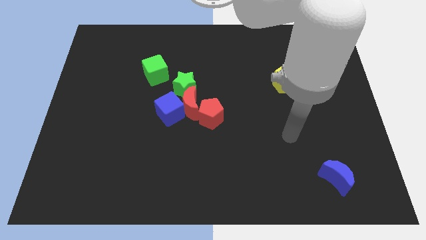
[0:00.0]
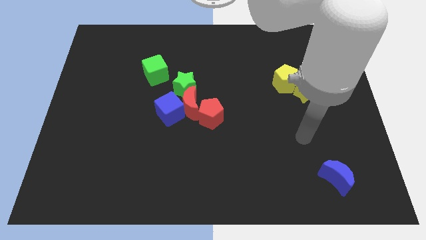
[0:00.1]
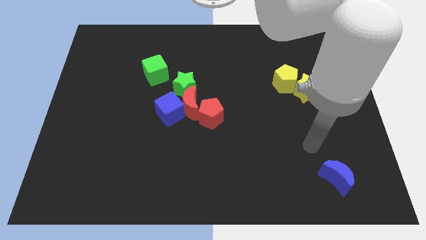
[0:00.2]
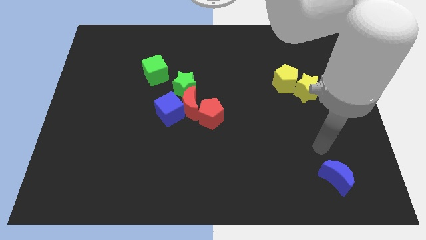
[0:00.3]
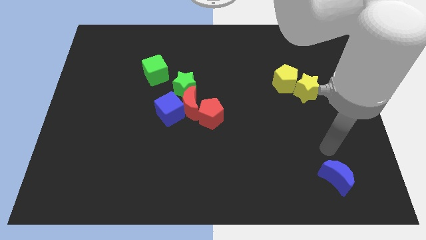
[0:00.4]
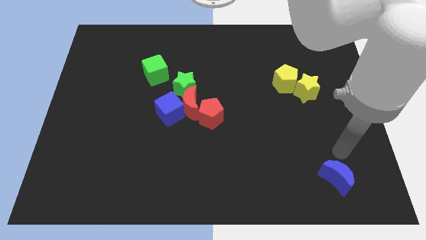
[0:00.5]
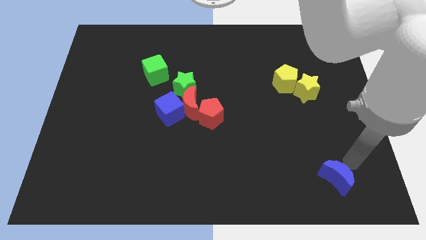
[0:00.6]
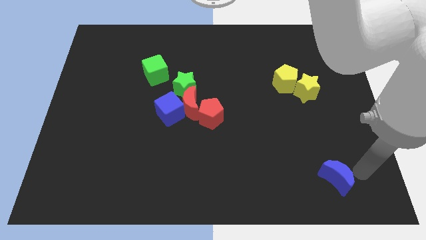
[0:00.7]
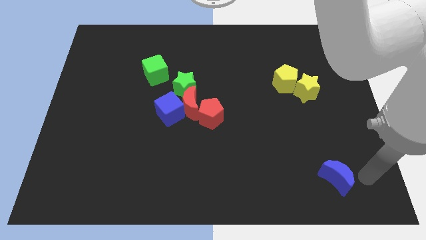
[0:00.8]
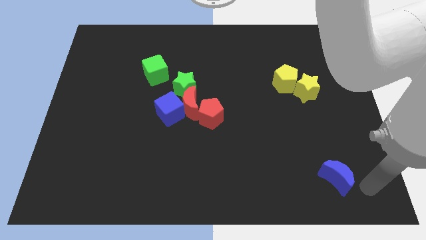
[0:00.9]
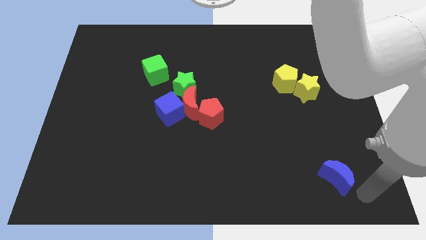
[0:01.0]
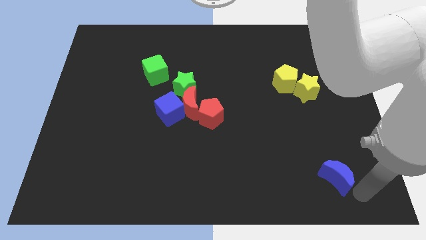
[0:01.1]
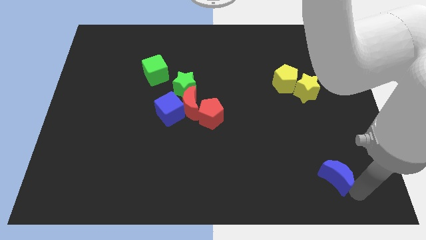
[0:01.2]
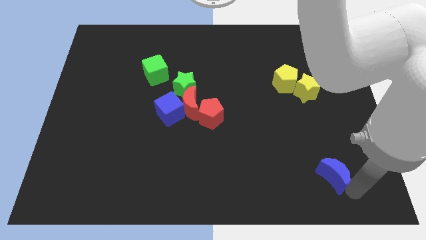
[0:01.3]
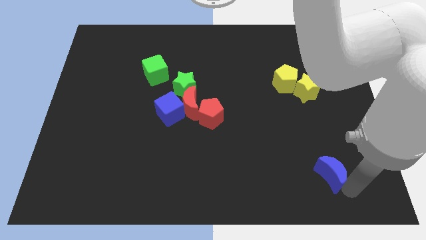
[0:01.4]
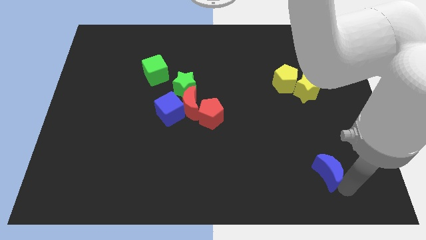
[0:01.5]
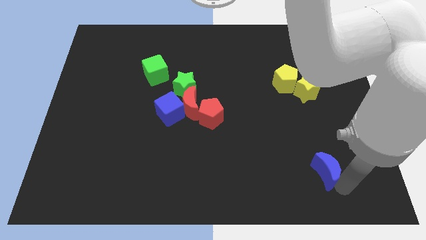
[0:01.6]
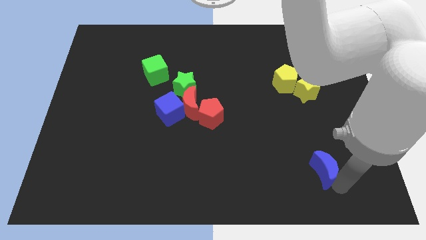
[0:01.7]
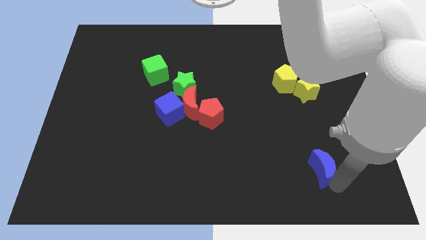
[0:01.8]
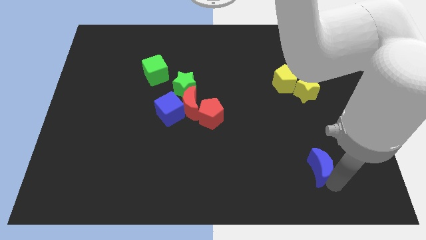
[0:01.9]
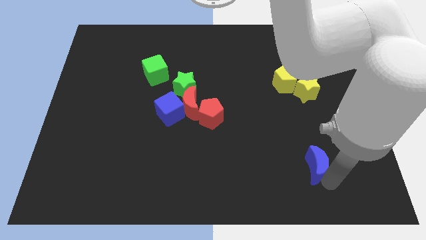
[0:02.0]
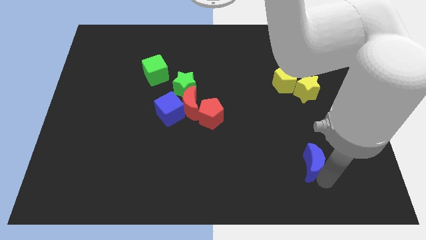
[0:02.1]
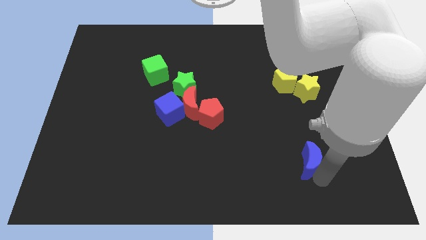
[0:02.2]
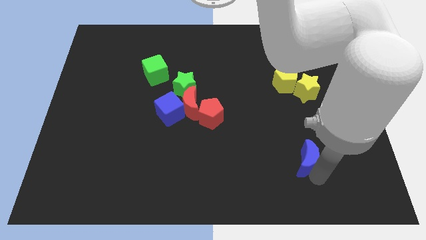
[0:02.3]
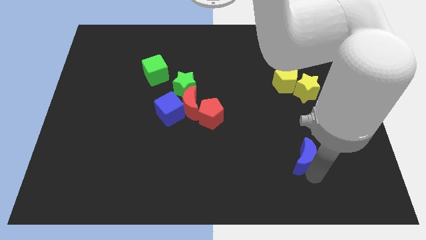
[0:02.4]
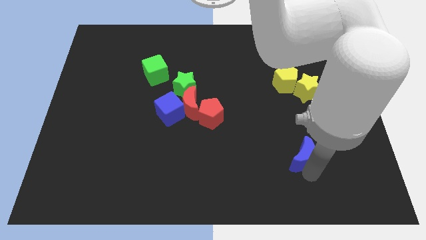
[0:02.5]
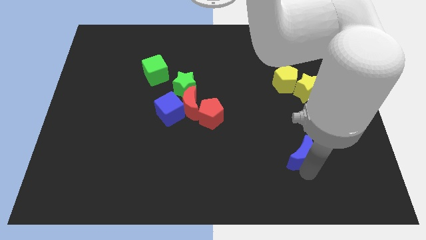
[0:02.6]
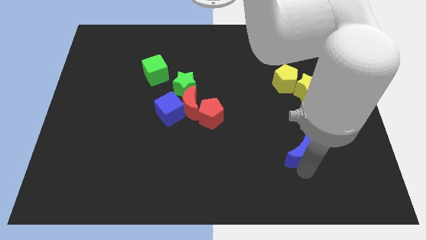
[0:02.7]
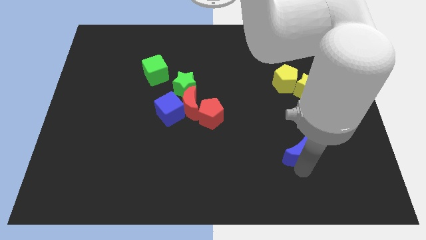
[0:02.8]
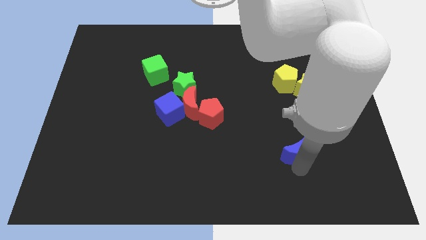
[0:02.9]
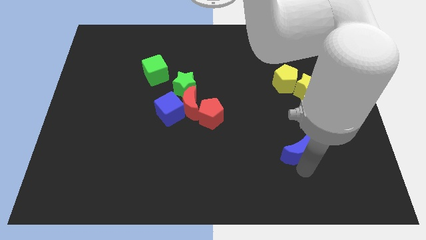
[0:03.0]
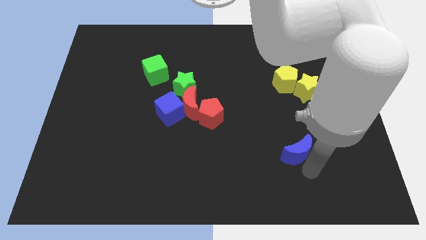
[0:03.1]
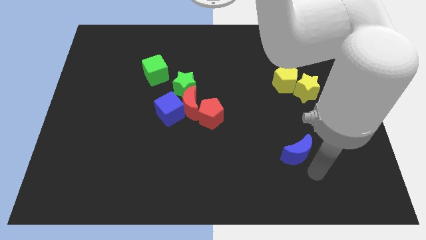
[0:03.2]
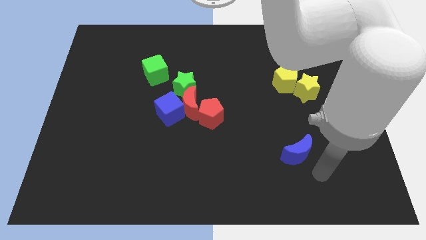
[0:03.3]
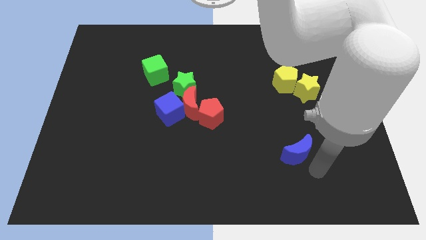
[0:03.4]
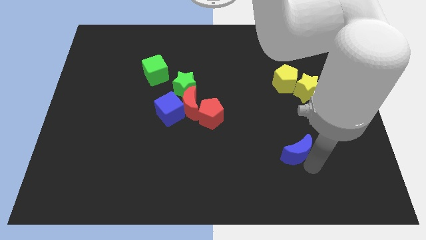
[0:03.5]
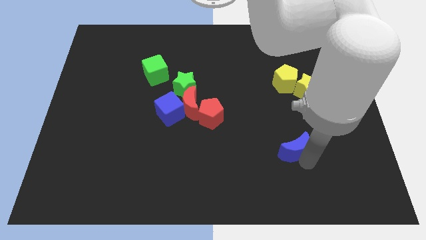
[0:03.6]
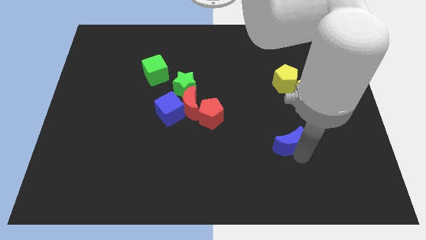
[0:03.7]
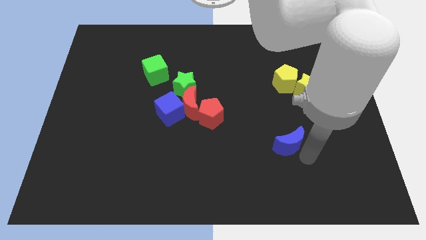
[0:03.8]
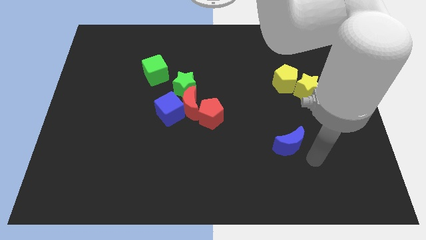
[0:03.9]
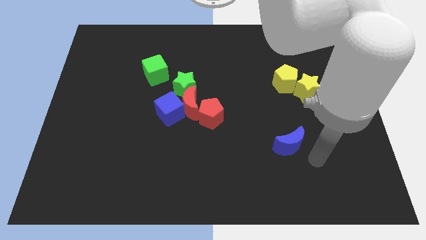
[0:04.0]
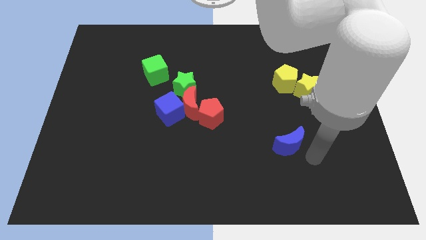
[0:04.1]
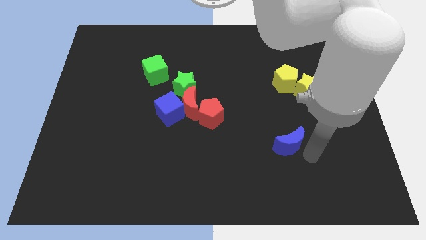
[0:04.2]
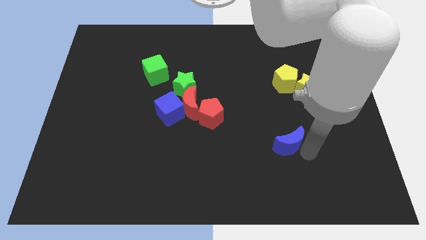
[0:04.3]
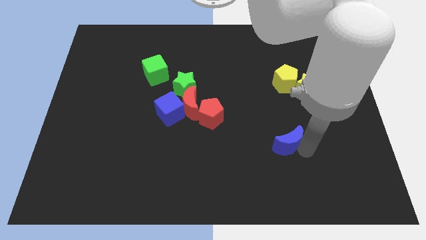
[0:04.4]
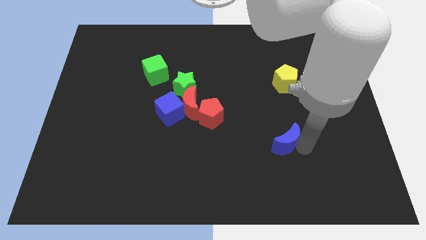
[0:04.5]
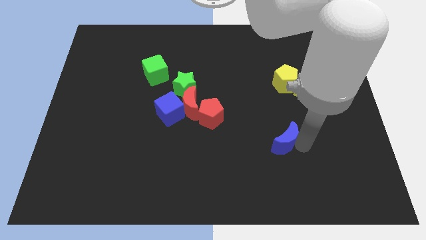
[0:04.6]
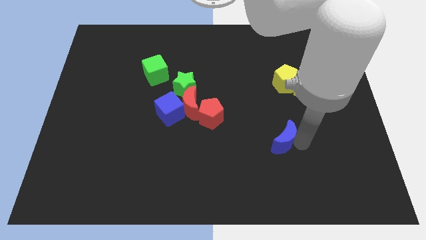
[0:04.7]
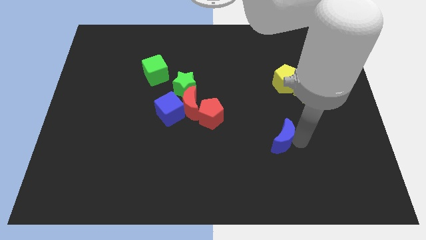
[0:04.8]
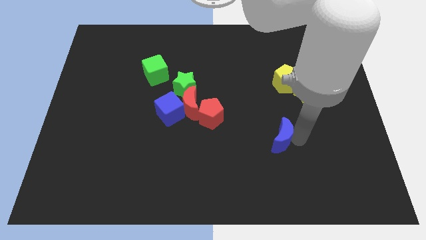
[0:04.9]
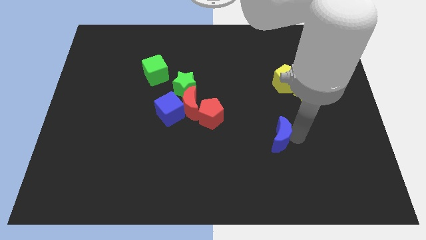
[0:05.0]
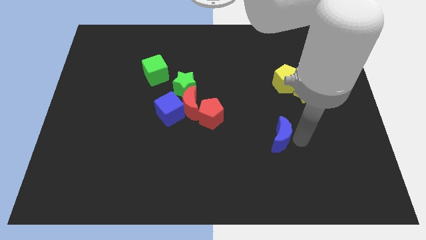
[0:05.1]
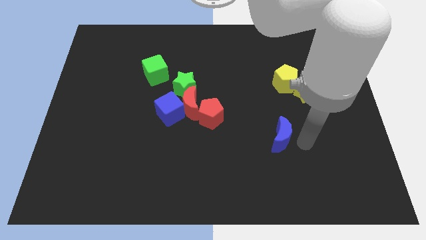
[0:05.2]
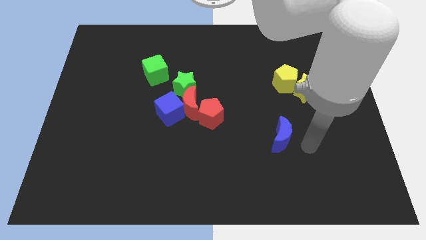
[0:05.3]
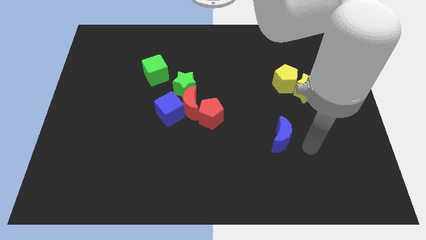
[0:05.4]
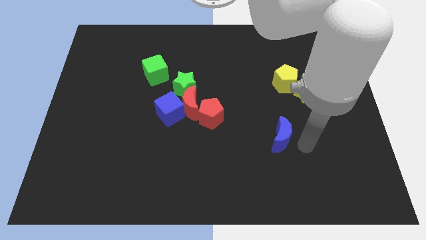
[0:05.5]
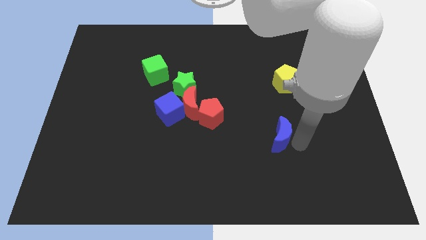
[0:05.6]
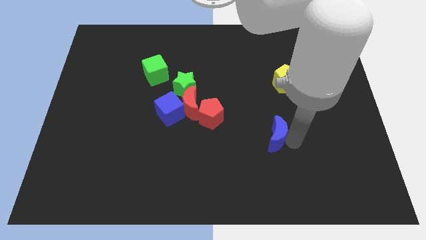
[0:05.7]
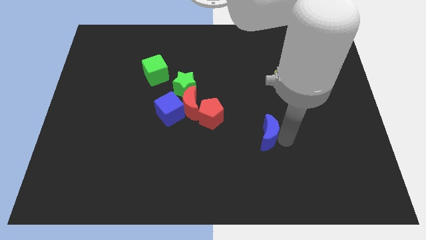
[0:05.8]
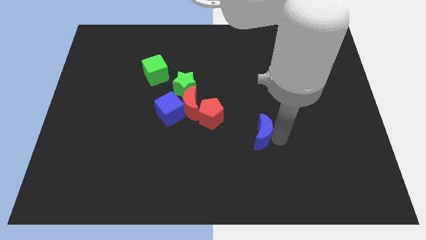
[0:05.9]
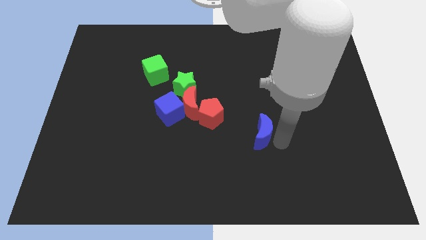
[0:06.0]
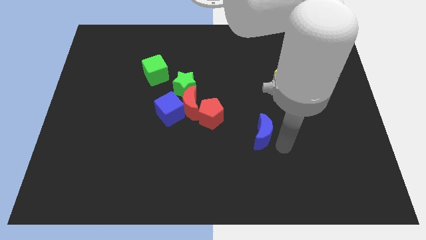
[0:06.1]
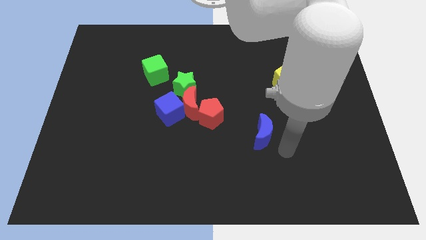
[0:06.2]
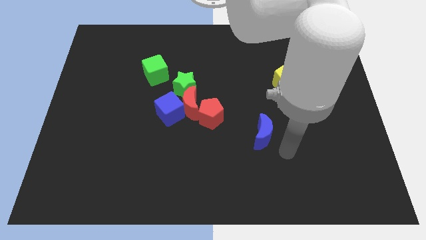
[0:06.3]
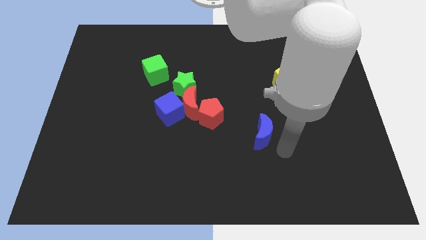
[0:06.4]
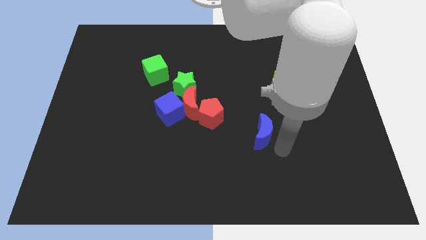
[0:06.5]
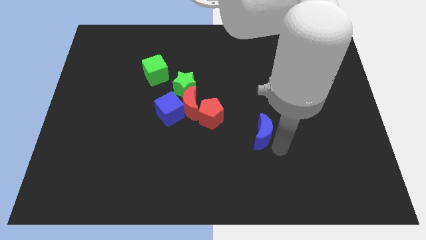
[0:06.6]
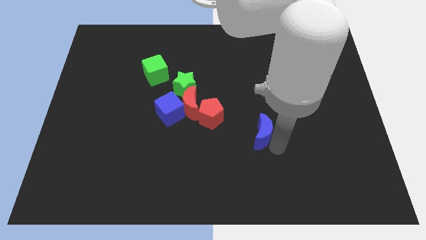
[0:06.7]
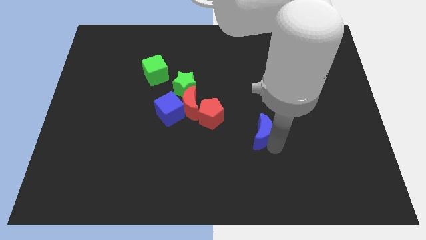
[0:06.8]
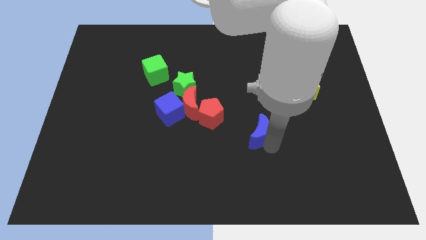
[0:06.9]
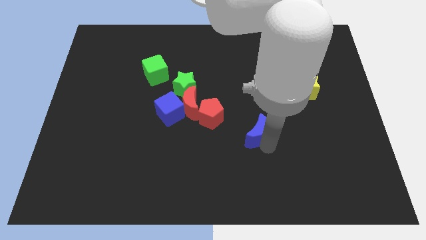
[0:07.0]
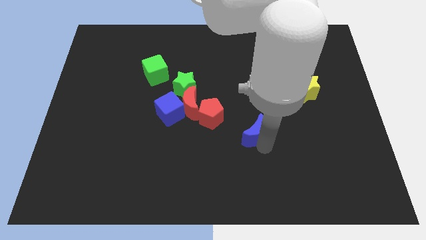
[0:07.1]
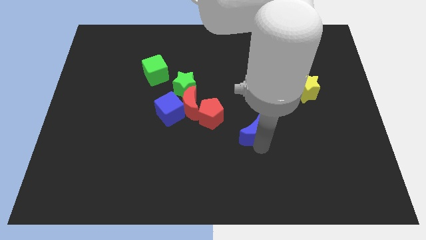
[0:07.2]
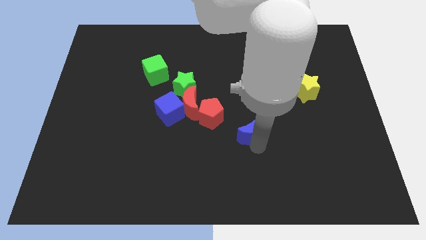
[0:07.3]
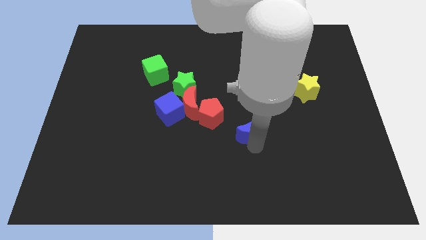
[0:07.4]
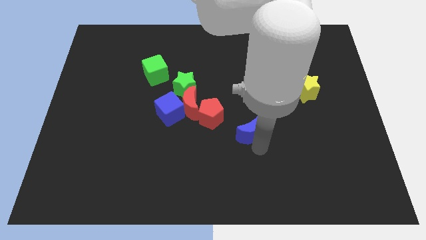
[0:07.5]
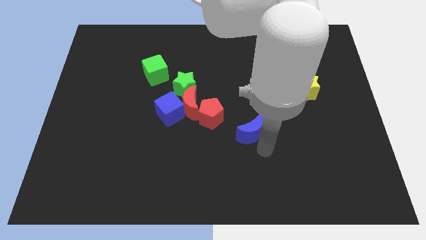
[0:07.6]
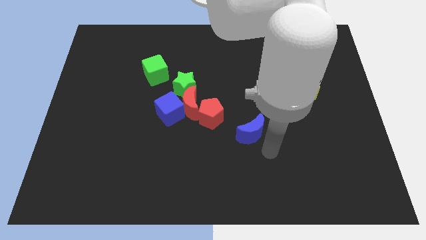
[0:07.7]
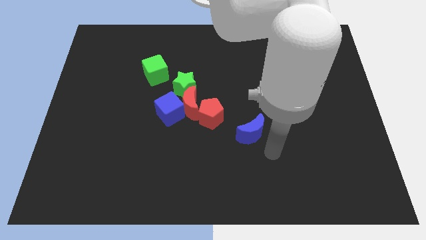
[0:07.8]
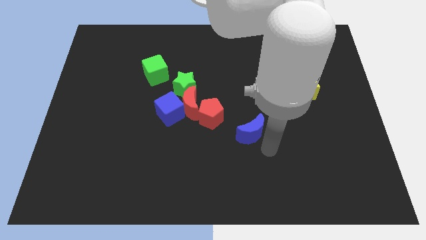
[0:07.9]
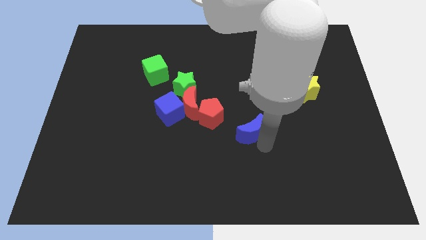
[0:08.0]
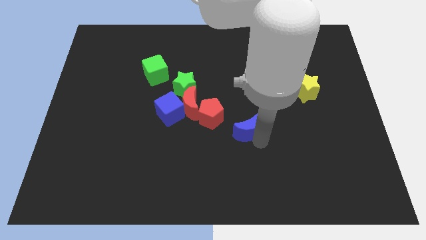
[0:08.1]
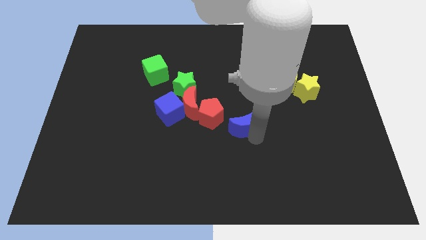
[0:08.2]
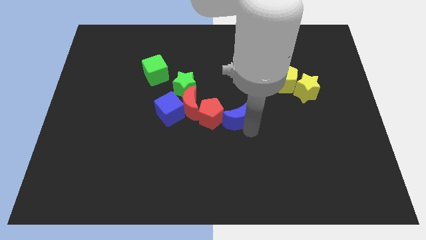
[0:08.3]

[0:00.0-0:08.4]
slide the blue moon to the red pentagon
